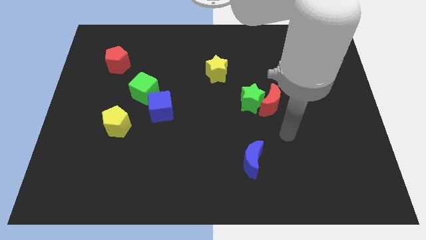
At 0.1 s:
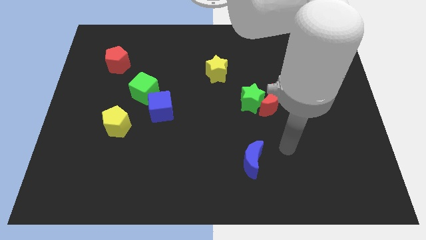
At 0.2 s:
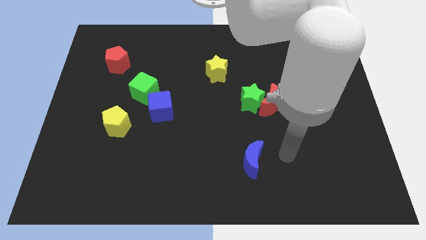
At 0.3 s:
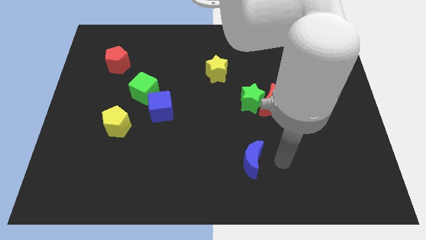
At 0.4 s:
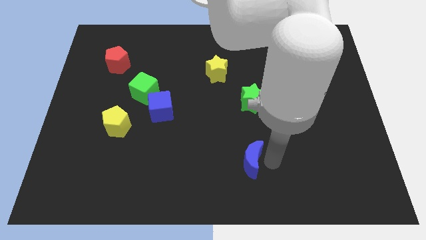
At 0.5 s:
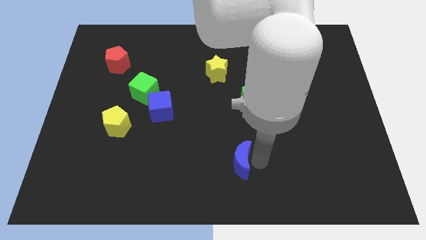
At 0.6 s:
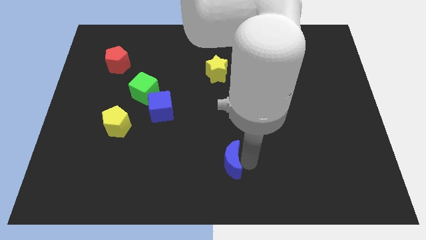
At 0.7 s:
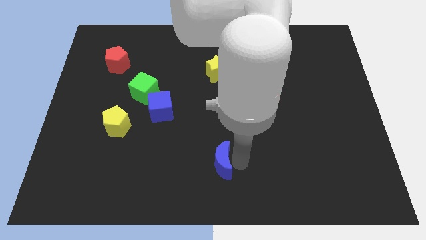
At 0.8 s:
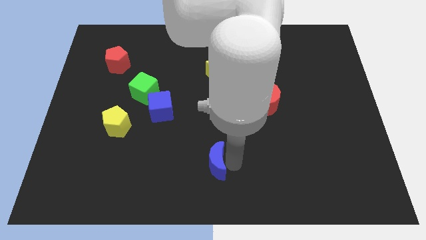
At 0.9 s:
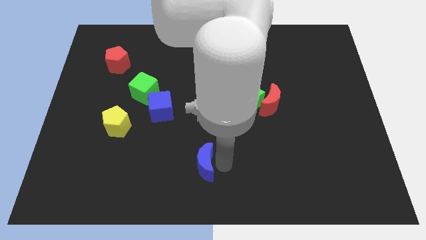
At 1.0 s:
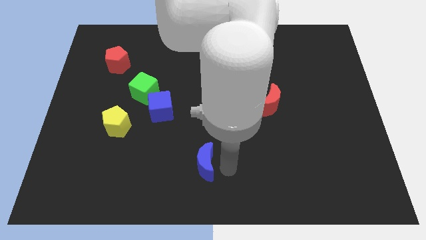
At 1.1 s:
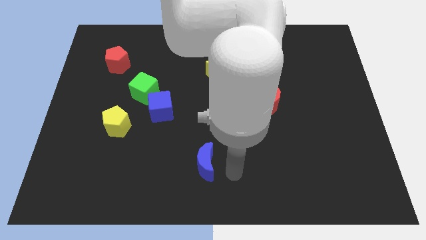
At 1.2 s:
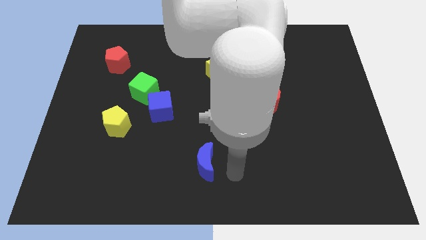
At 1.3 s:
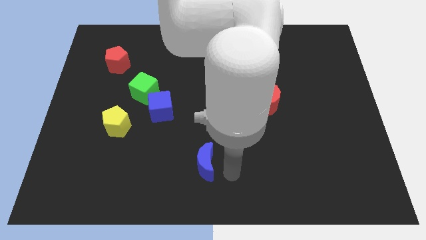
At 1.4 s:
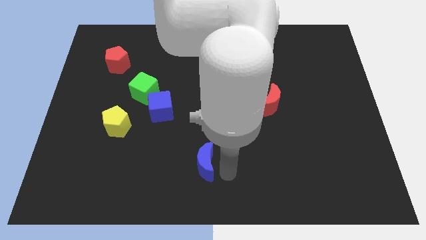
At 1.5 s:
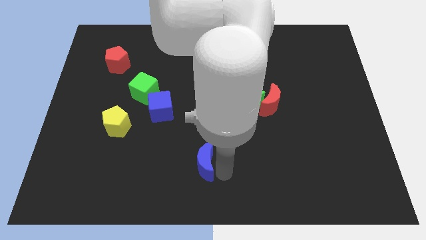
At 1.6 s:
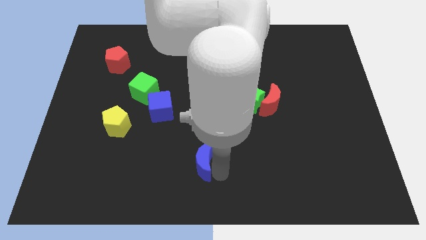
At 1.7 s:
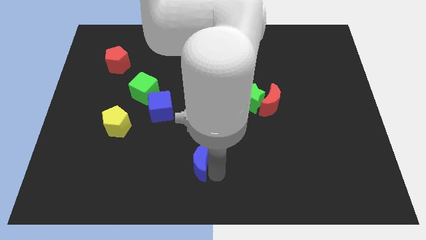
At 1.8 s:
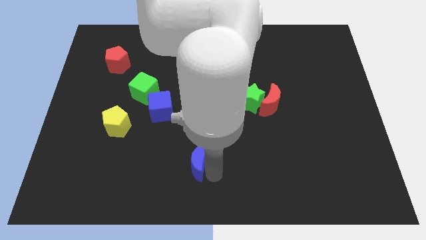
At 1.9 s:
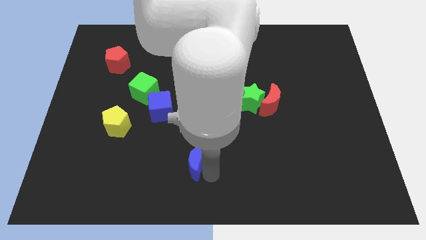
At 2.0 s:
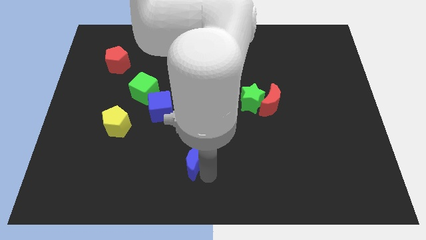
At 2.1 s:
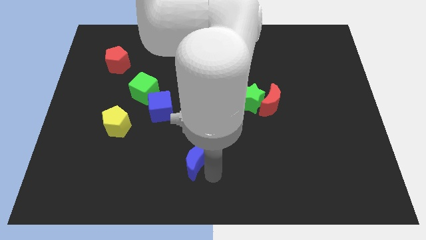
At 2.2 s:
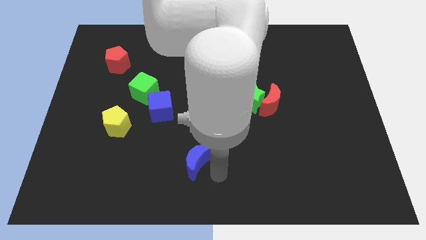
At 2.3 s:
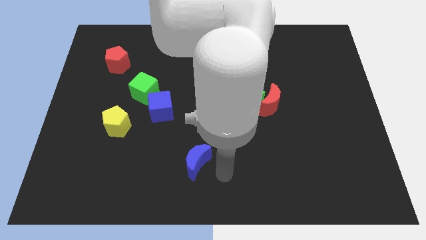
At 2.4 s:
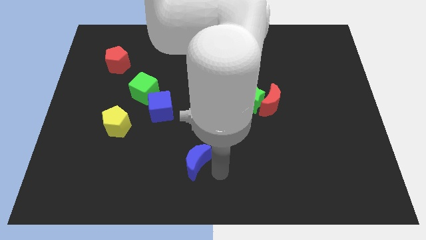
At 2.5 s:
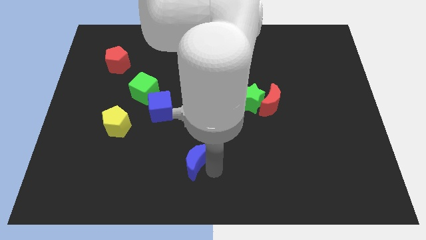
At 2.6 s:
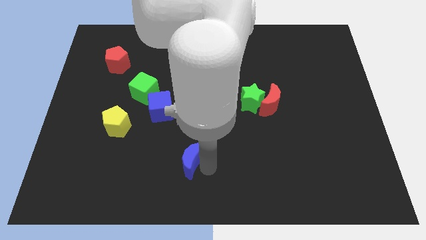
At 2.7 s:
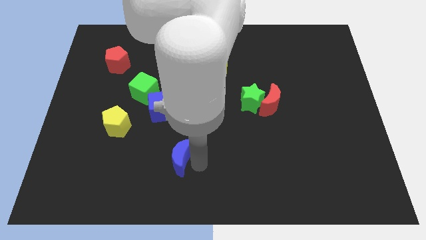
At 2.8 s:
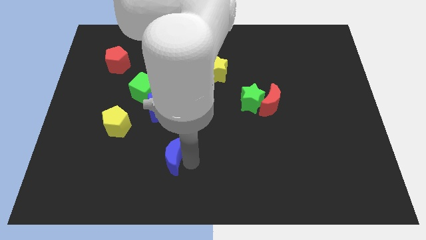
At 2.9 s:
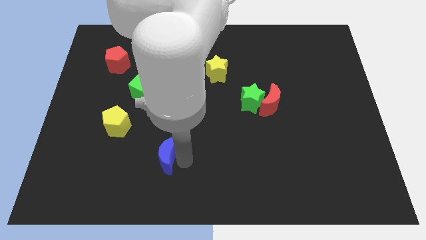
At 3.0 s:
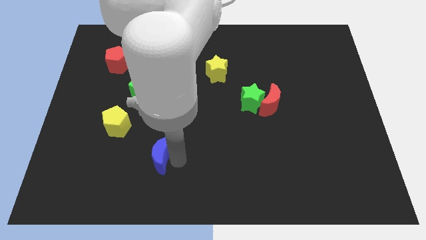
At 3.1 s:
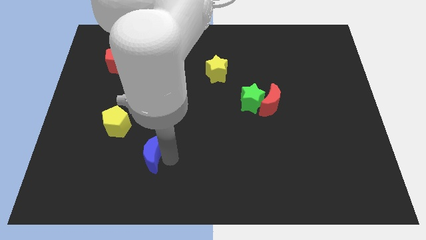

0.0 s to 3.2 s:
push the blue moon to the left

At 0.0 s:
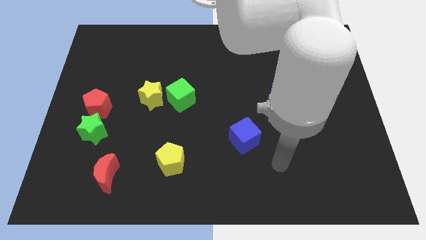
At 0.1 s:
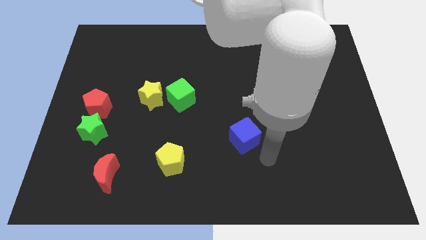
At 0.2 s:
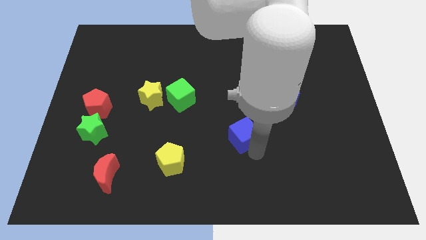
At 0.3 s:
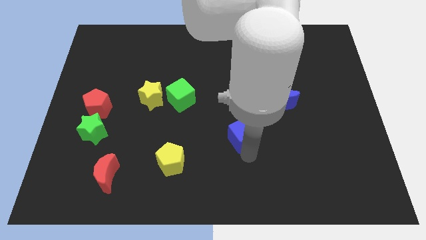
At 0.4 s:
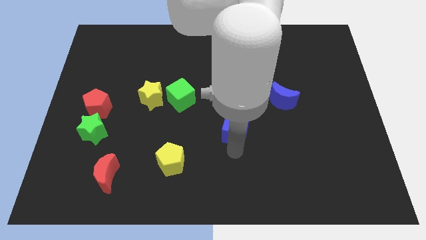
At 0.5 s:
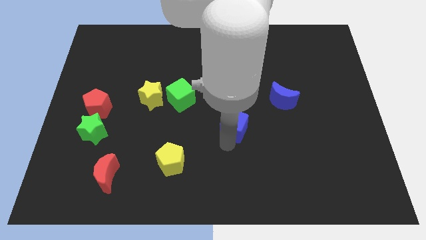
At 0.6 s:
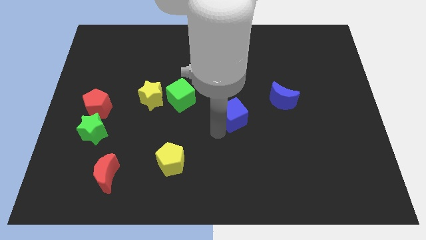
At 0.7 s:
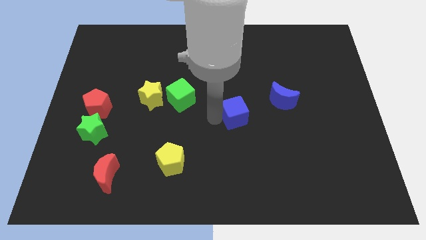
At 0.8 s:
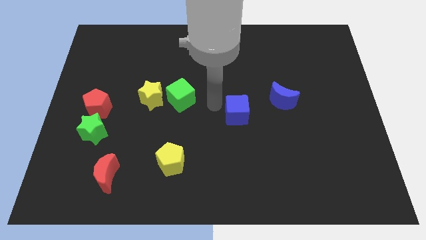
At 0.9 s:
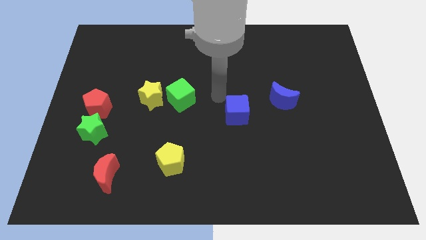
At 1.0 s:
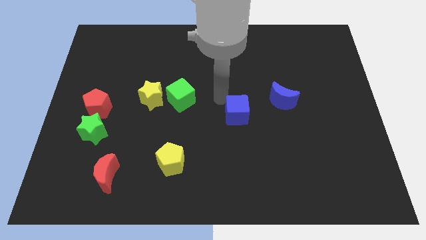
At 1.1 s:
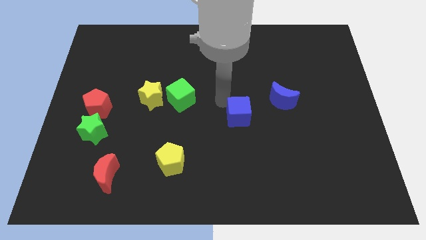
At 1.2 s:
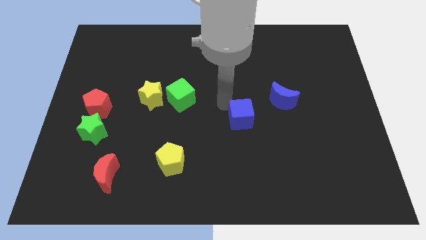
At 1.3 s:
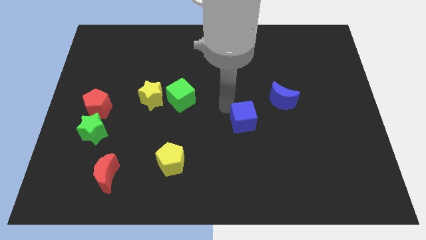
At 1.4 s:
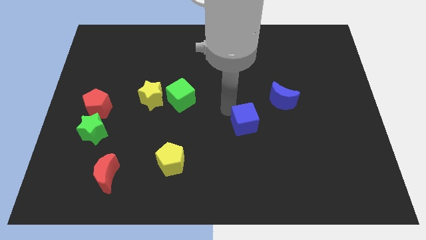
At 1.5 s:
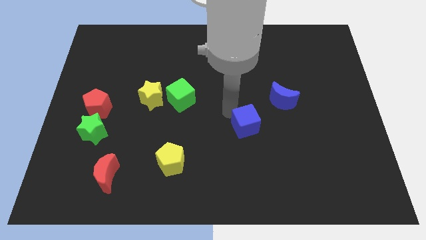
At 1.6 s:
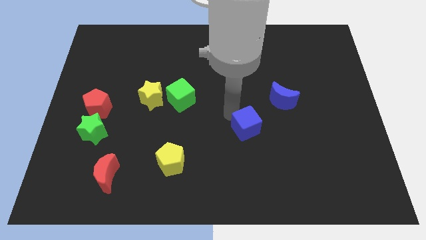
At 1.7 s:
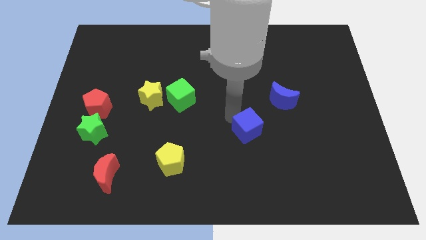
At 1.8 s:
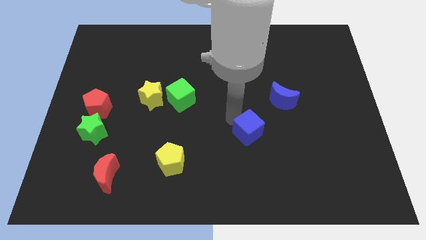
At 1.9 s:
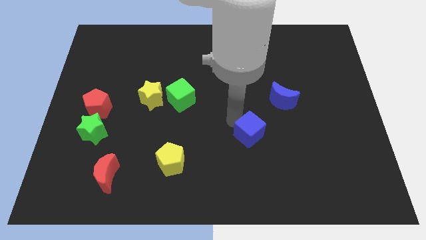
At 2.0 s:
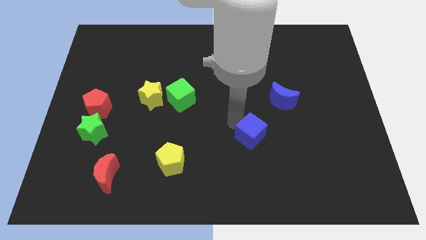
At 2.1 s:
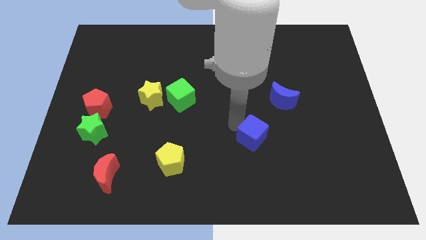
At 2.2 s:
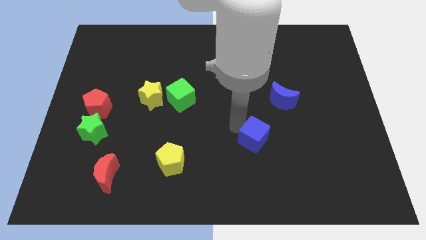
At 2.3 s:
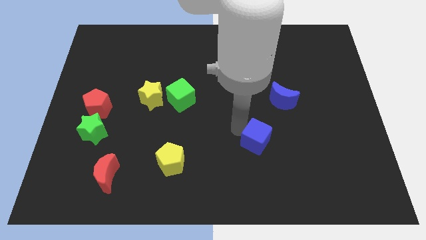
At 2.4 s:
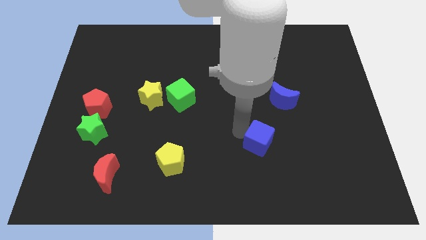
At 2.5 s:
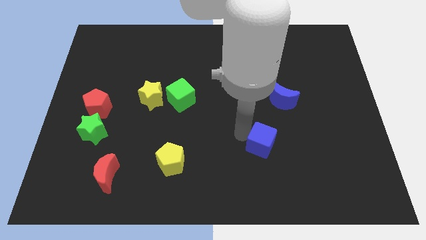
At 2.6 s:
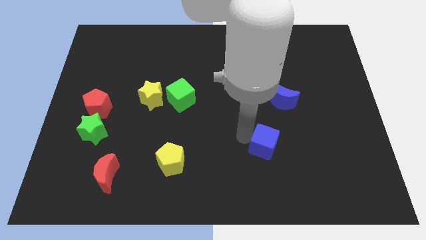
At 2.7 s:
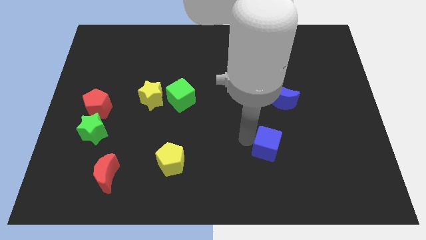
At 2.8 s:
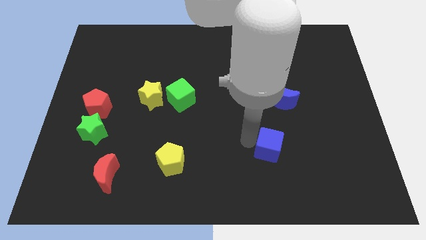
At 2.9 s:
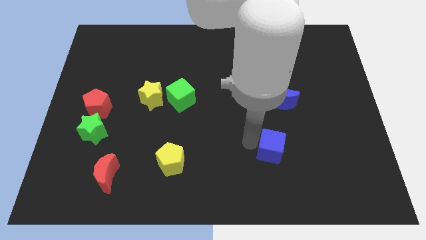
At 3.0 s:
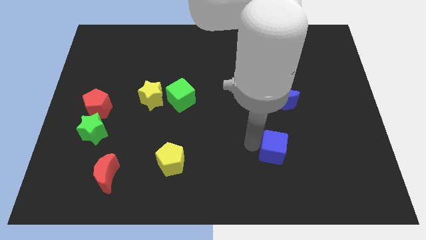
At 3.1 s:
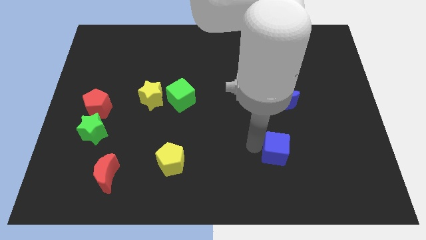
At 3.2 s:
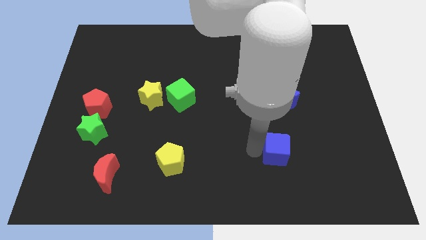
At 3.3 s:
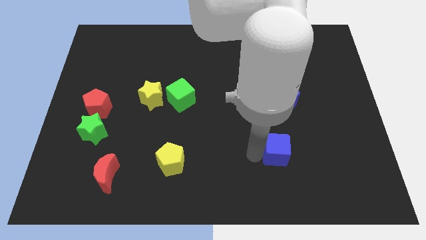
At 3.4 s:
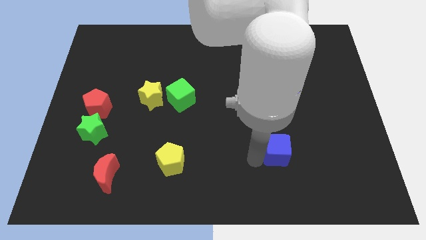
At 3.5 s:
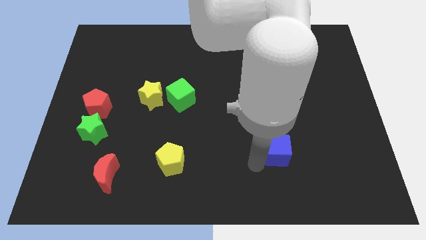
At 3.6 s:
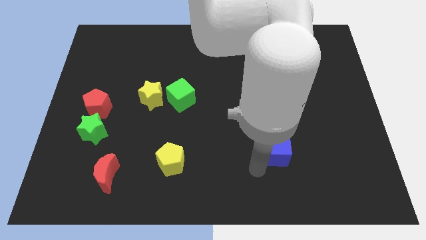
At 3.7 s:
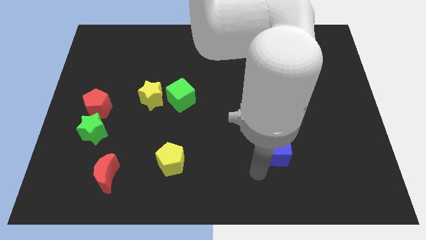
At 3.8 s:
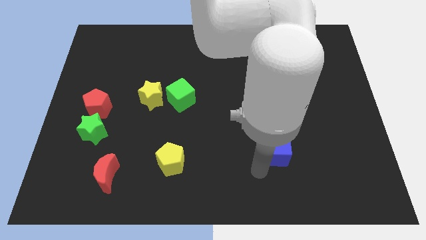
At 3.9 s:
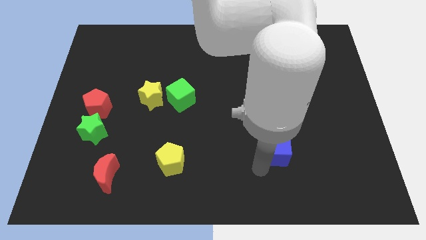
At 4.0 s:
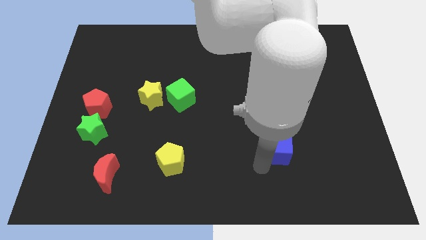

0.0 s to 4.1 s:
slightly push the blue cube to the right

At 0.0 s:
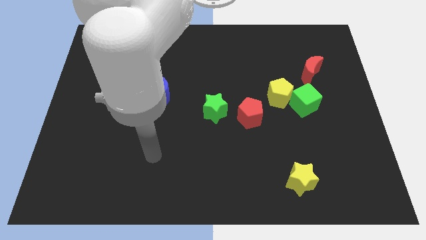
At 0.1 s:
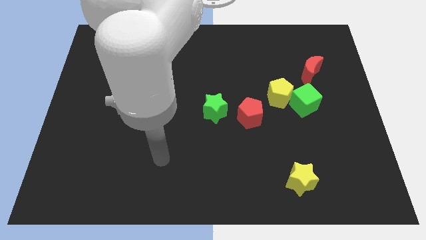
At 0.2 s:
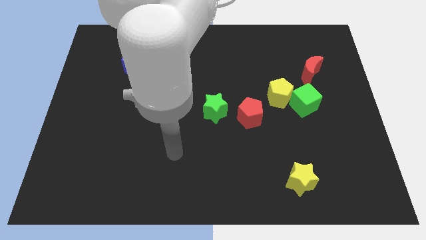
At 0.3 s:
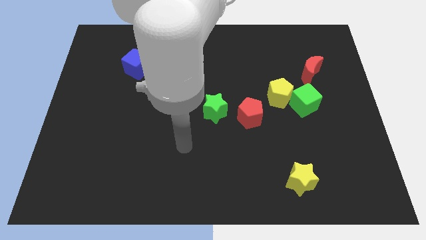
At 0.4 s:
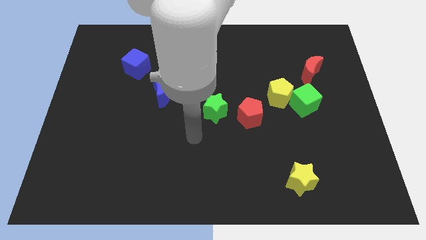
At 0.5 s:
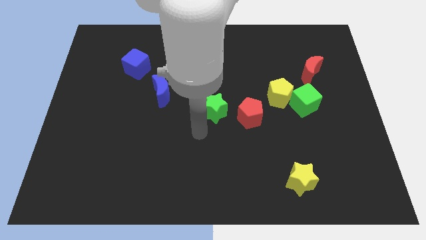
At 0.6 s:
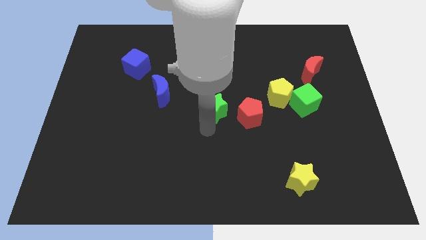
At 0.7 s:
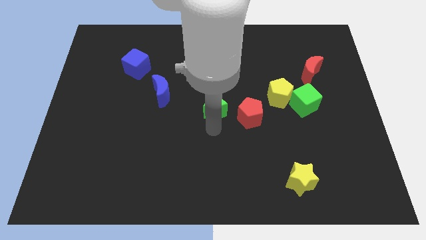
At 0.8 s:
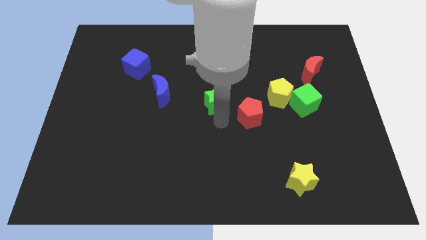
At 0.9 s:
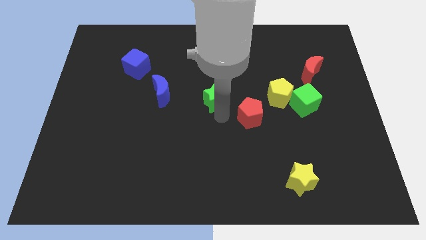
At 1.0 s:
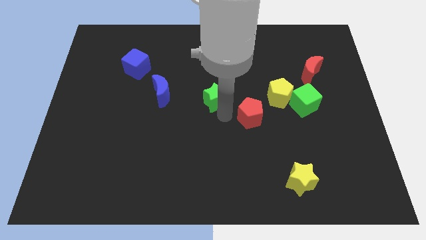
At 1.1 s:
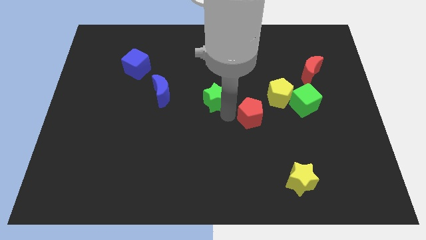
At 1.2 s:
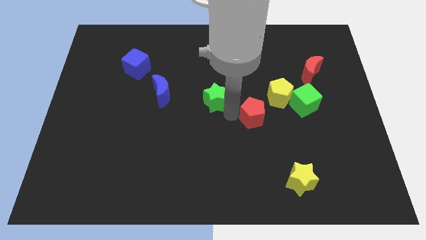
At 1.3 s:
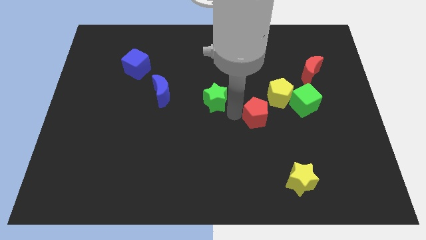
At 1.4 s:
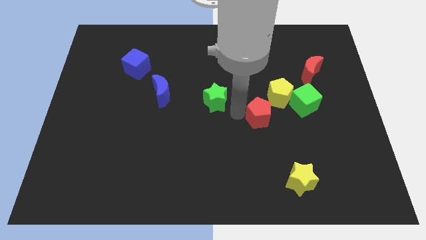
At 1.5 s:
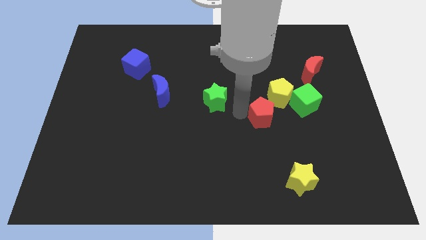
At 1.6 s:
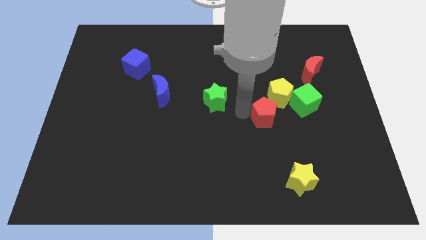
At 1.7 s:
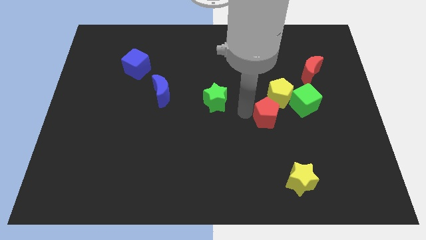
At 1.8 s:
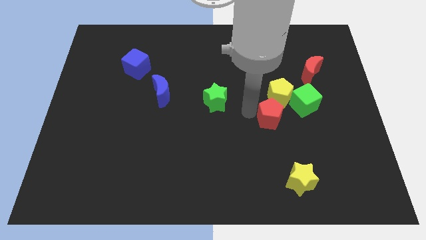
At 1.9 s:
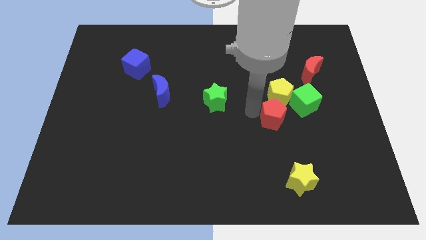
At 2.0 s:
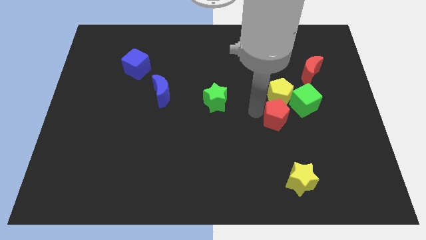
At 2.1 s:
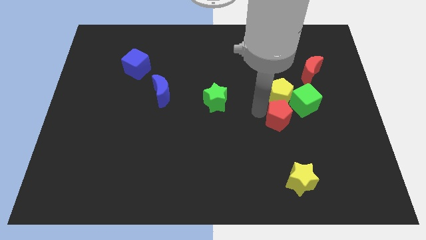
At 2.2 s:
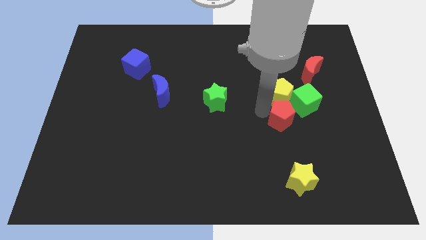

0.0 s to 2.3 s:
slightly move the red pentagon to the right
